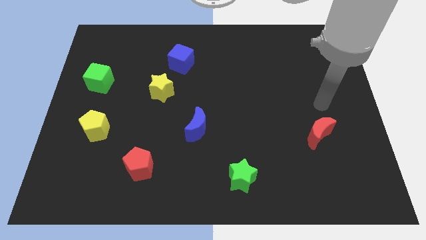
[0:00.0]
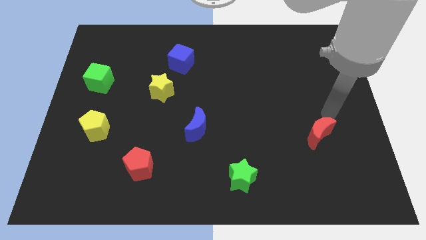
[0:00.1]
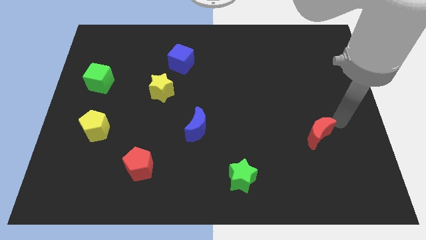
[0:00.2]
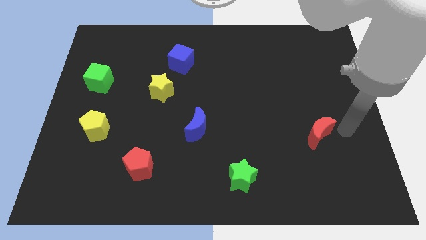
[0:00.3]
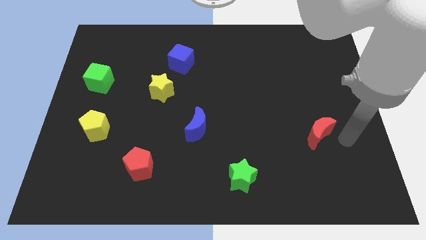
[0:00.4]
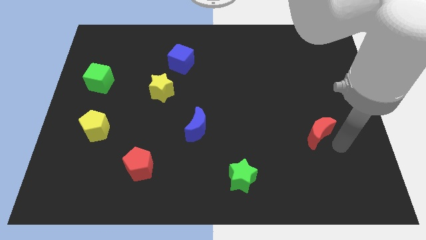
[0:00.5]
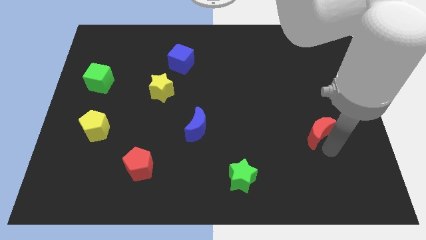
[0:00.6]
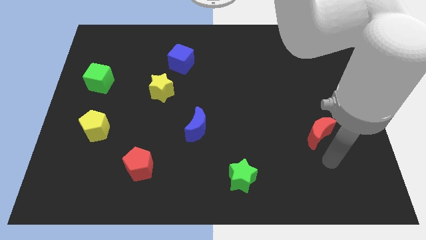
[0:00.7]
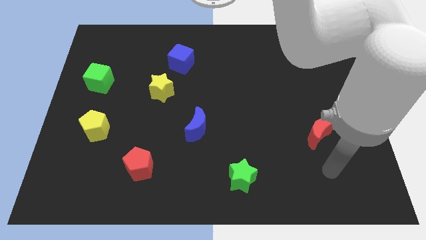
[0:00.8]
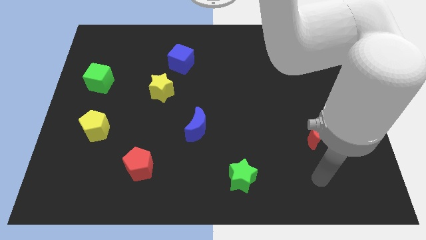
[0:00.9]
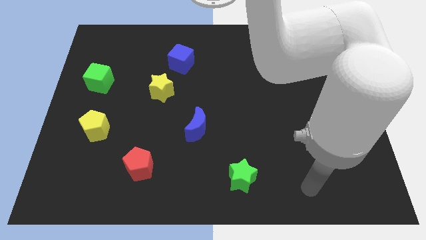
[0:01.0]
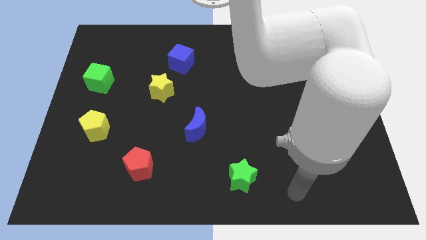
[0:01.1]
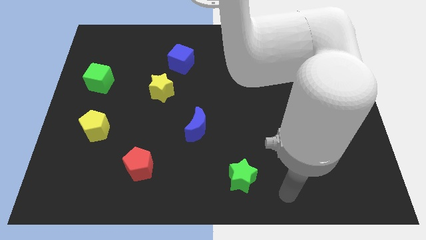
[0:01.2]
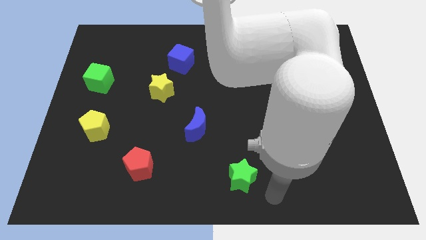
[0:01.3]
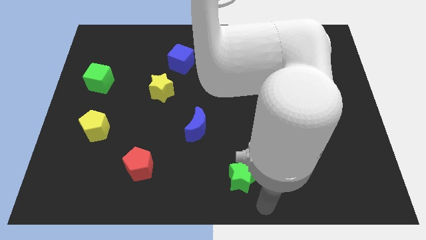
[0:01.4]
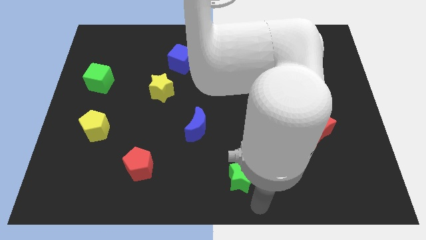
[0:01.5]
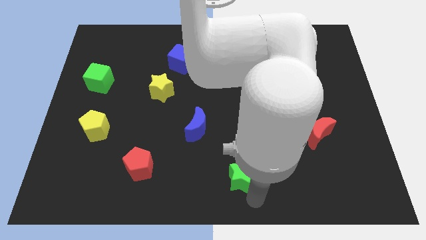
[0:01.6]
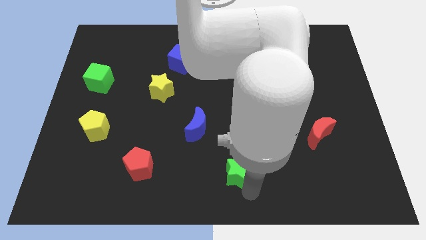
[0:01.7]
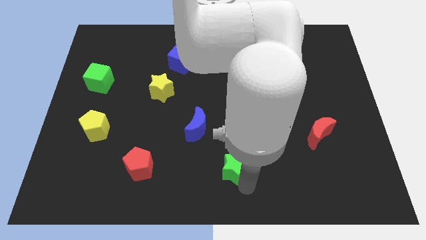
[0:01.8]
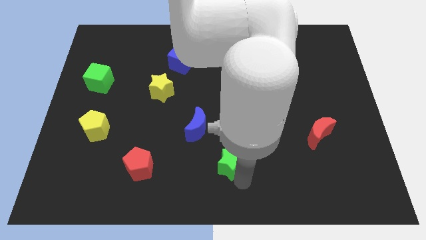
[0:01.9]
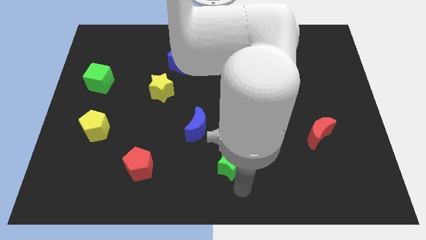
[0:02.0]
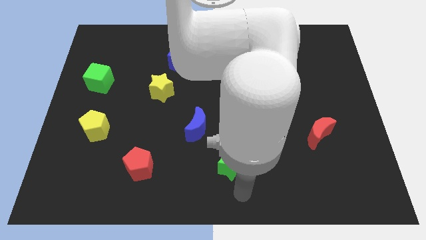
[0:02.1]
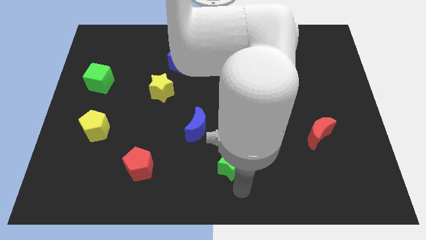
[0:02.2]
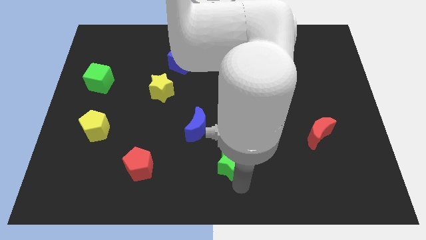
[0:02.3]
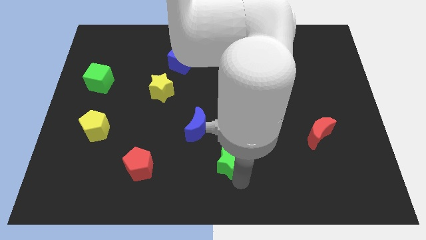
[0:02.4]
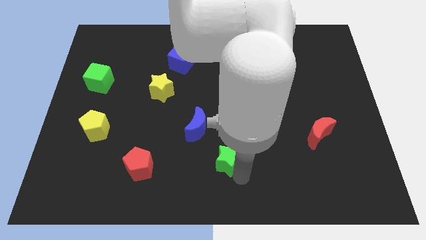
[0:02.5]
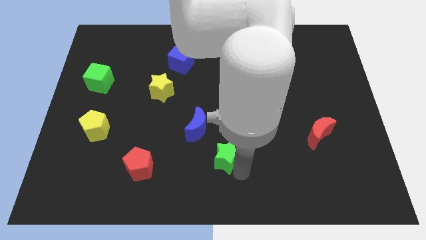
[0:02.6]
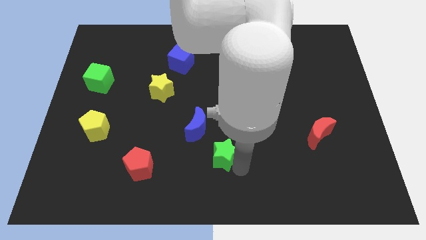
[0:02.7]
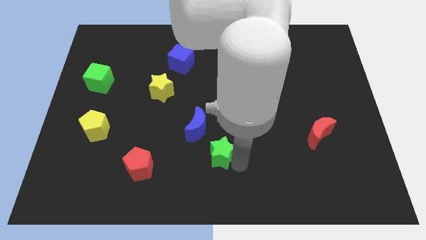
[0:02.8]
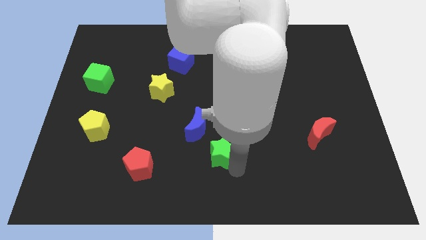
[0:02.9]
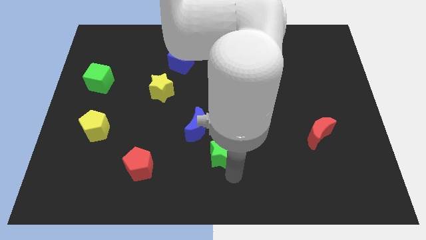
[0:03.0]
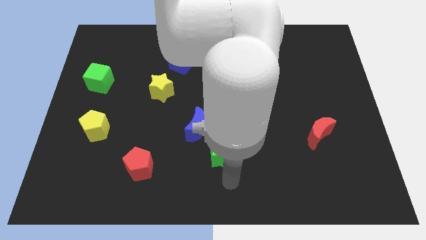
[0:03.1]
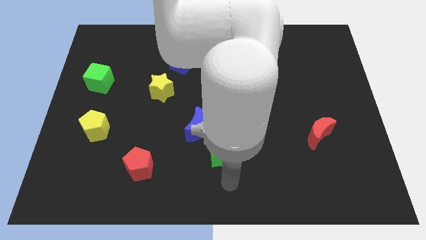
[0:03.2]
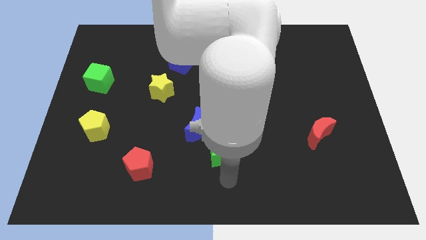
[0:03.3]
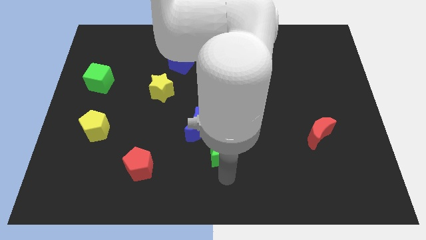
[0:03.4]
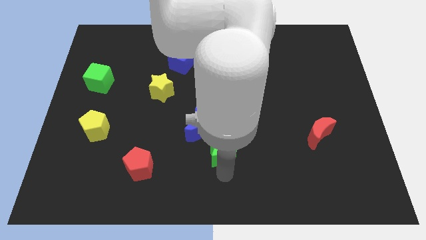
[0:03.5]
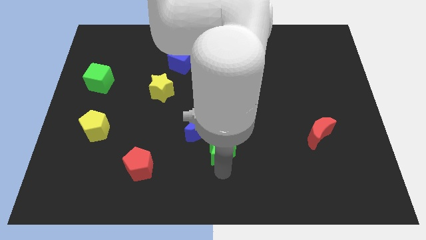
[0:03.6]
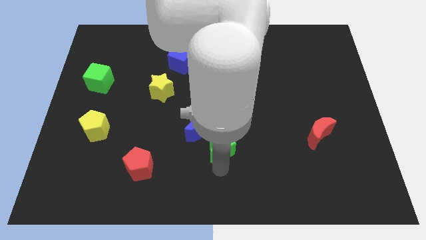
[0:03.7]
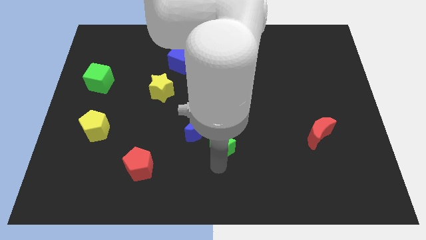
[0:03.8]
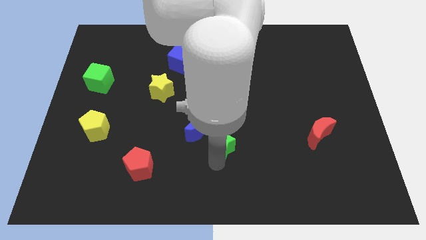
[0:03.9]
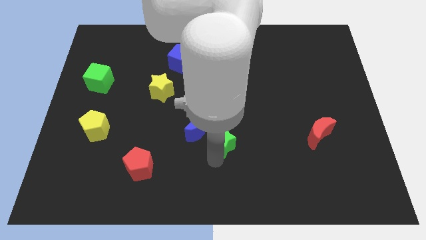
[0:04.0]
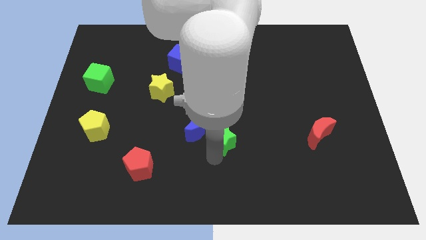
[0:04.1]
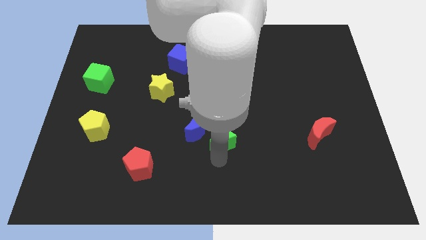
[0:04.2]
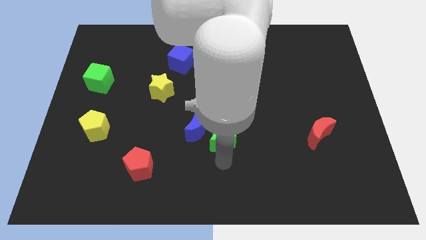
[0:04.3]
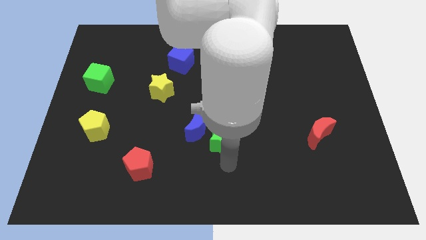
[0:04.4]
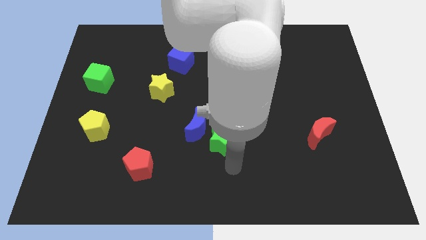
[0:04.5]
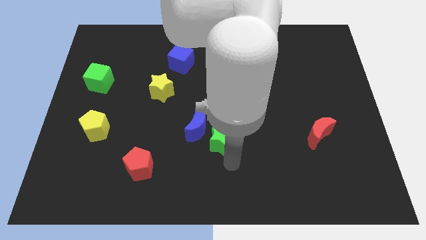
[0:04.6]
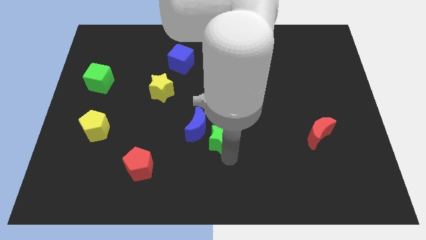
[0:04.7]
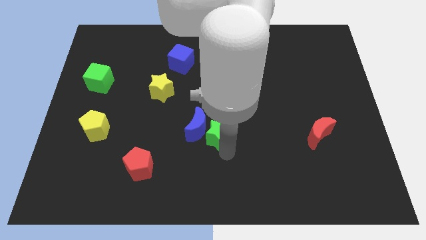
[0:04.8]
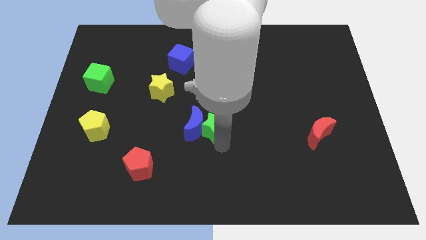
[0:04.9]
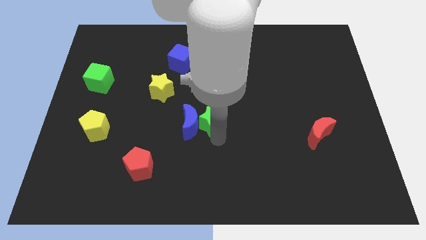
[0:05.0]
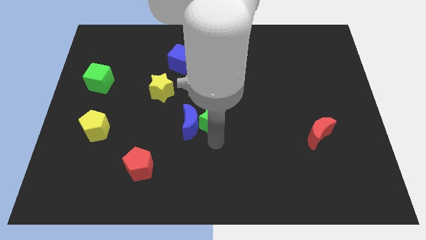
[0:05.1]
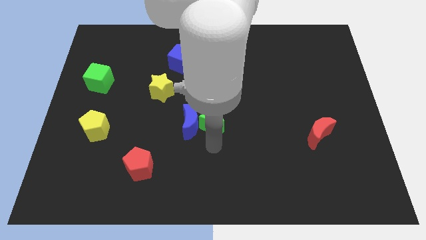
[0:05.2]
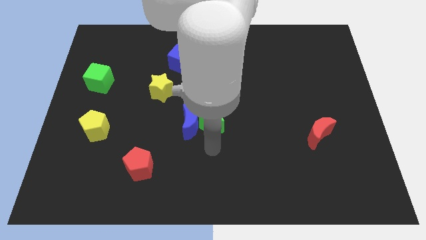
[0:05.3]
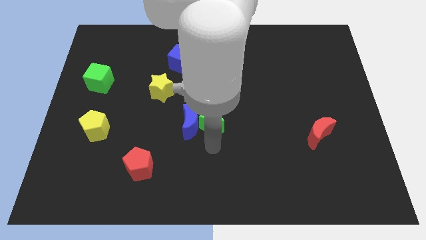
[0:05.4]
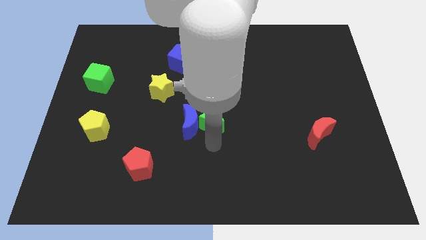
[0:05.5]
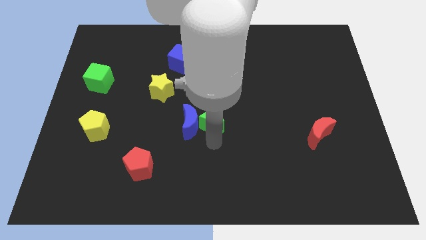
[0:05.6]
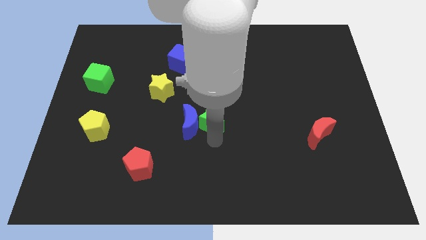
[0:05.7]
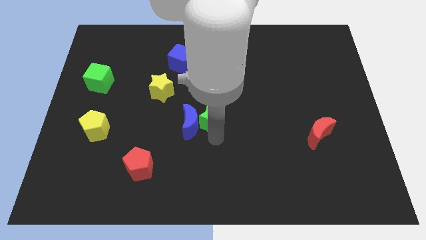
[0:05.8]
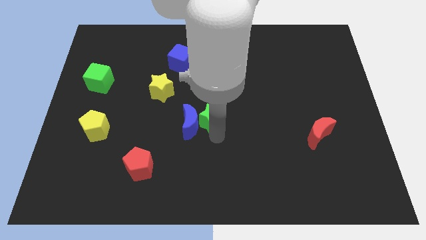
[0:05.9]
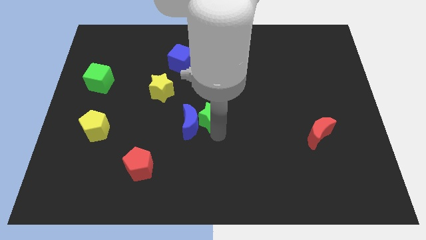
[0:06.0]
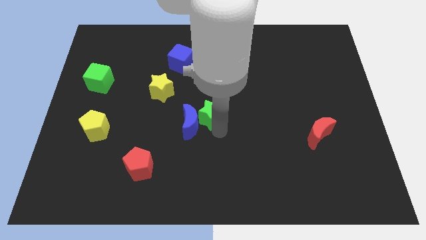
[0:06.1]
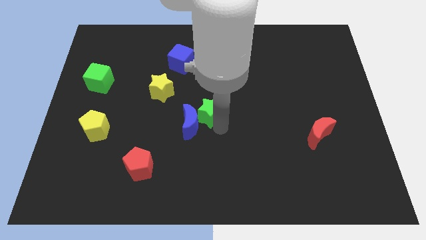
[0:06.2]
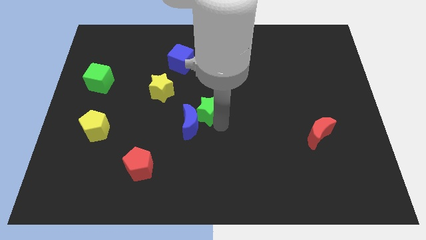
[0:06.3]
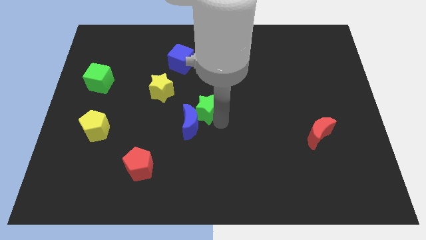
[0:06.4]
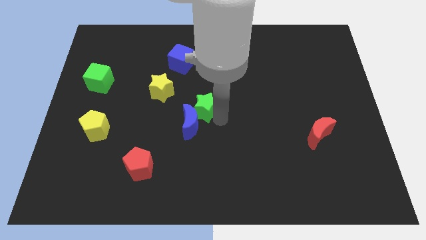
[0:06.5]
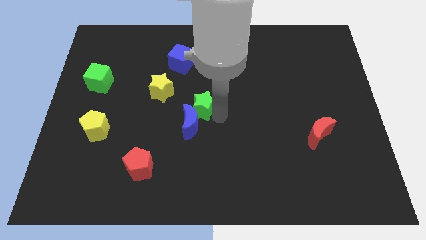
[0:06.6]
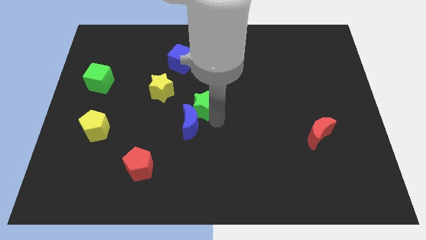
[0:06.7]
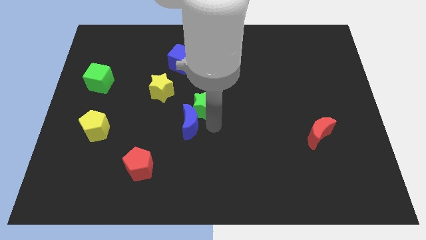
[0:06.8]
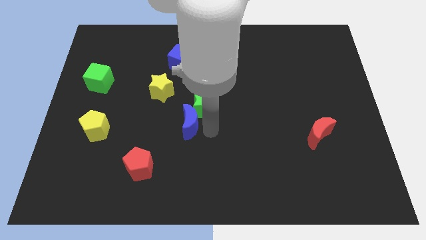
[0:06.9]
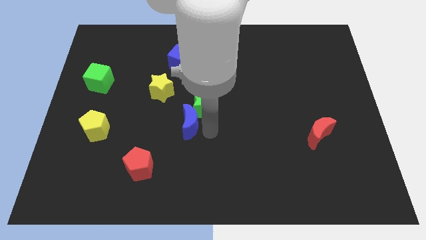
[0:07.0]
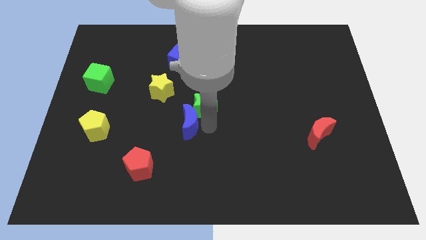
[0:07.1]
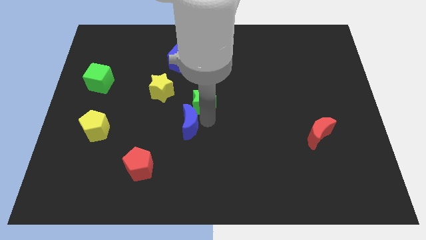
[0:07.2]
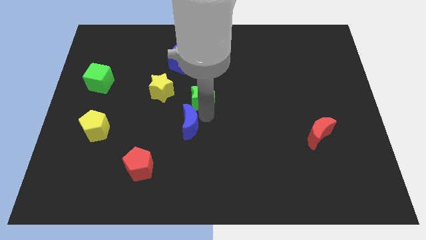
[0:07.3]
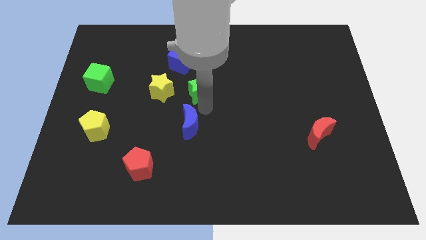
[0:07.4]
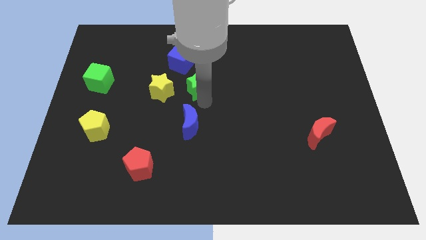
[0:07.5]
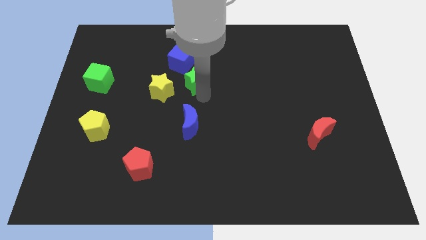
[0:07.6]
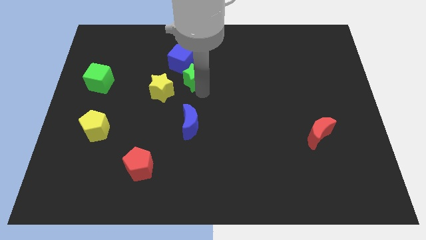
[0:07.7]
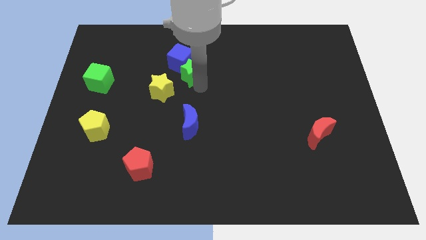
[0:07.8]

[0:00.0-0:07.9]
move the green star next to the blue cube

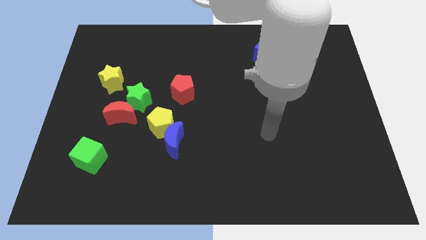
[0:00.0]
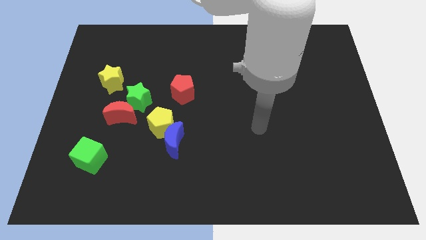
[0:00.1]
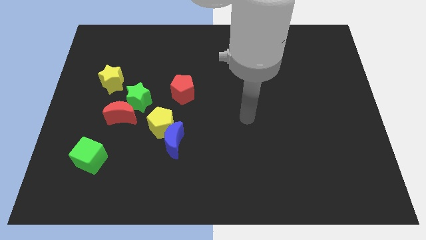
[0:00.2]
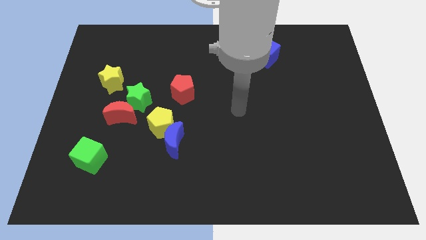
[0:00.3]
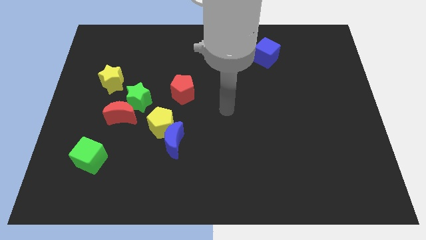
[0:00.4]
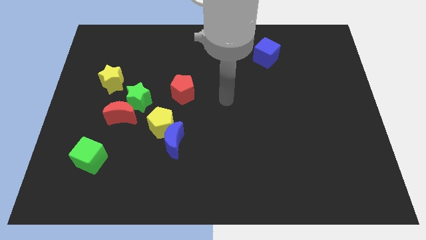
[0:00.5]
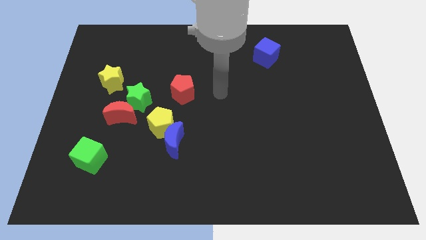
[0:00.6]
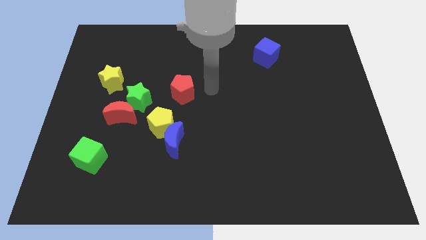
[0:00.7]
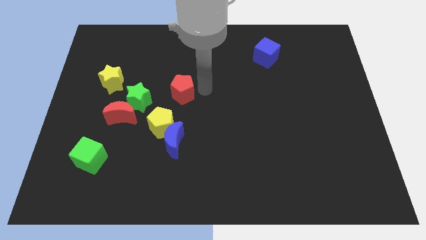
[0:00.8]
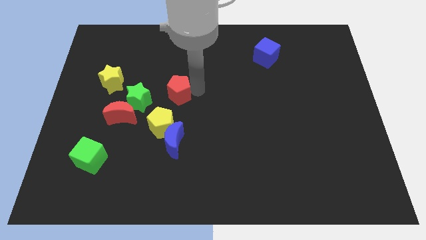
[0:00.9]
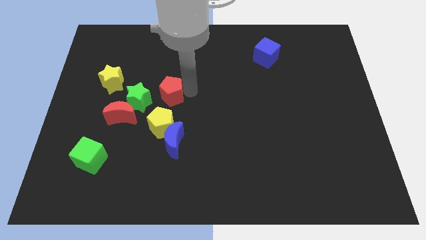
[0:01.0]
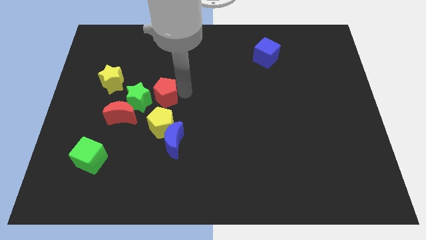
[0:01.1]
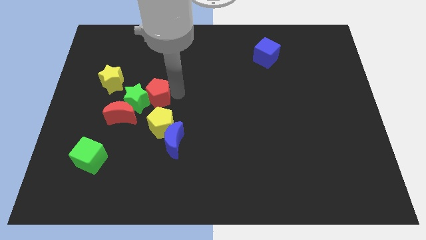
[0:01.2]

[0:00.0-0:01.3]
move the red pentagon towards the green star
